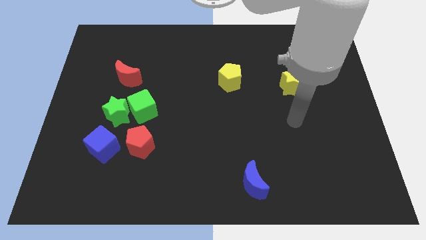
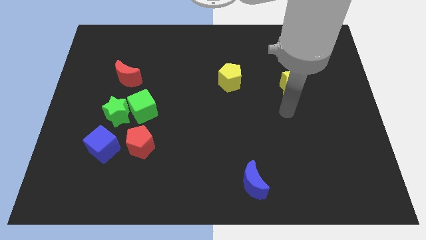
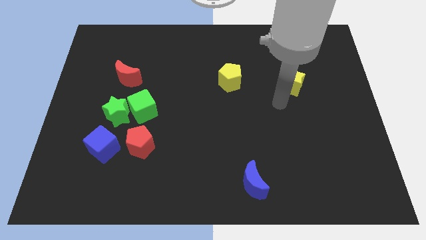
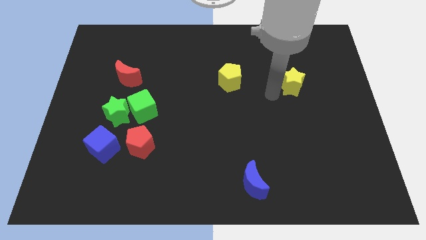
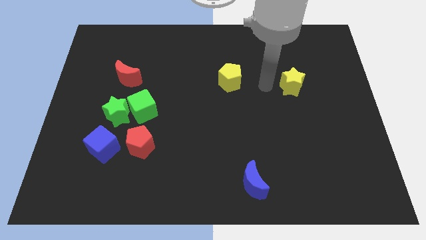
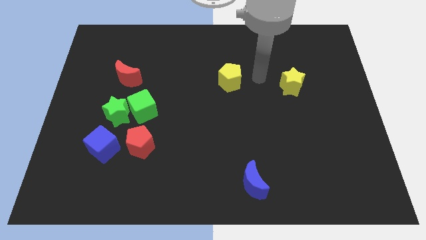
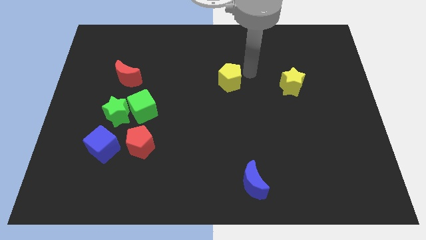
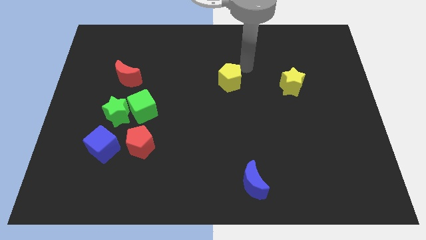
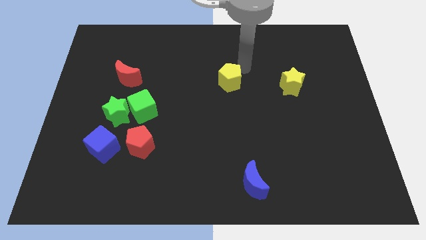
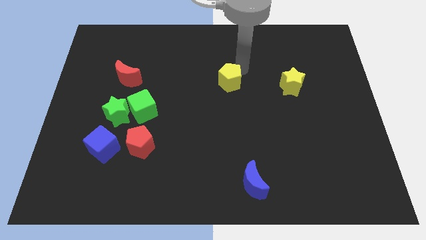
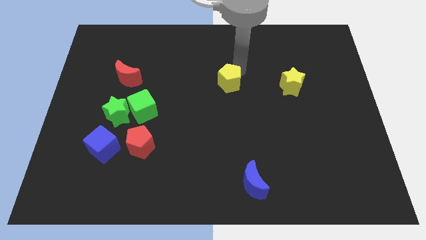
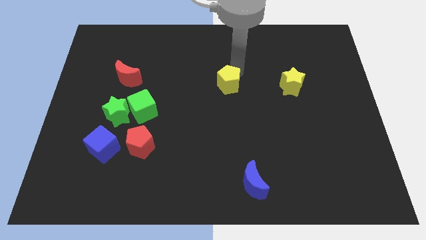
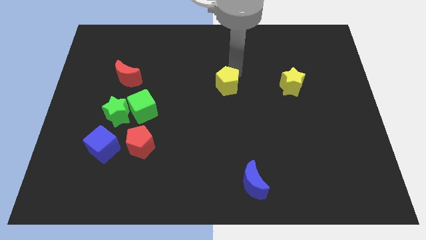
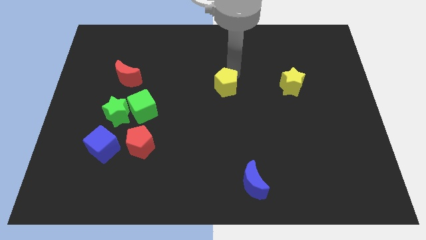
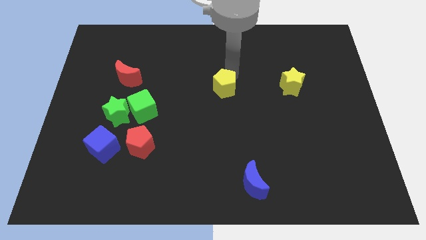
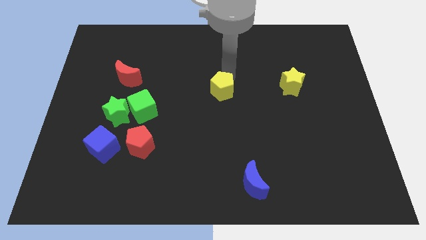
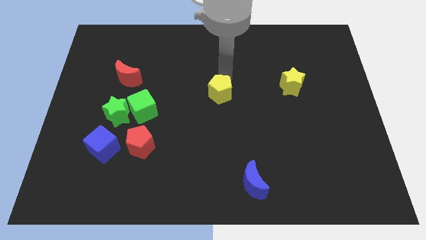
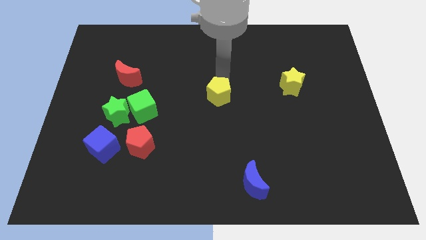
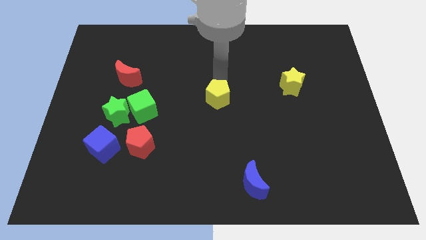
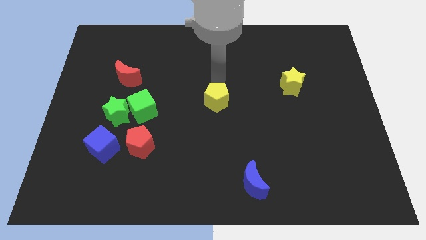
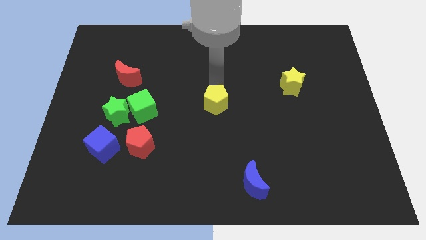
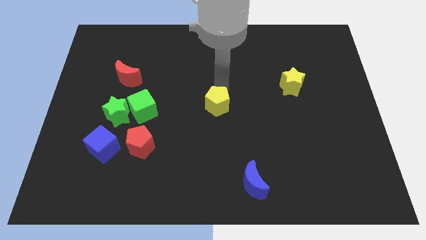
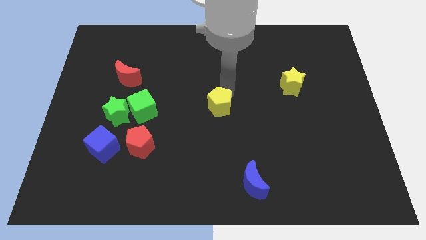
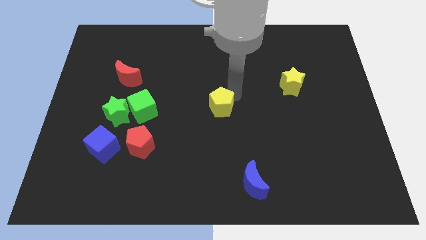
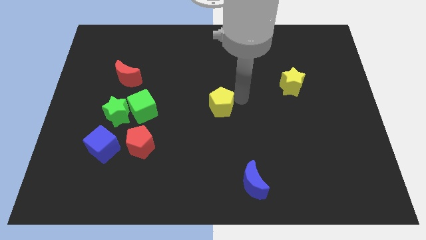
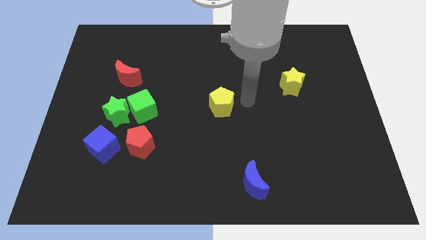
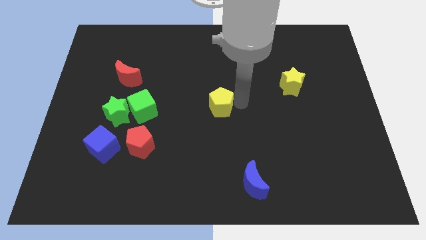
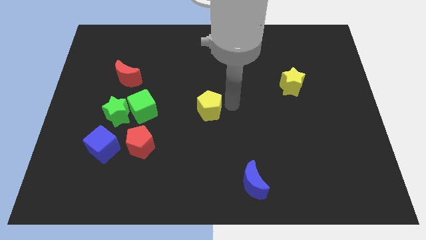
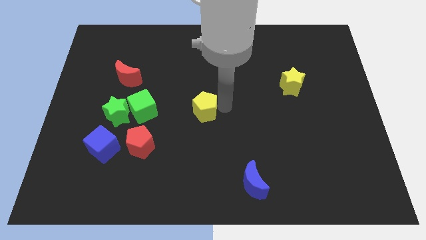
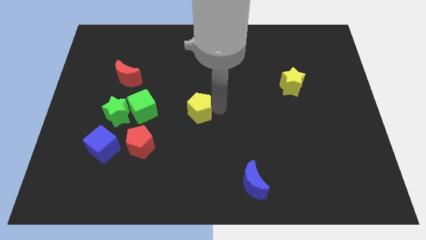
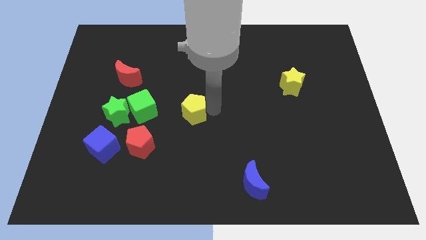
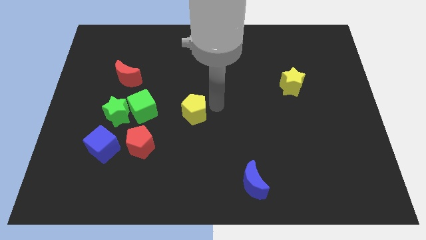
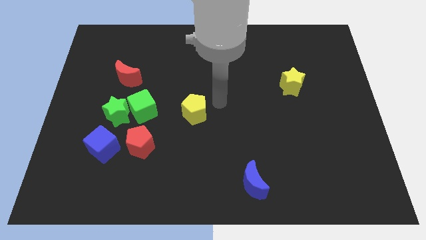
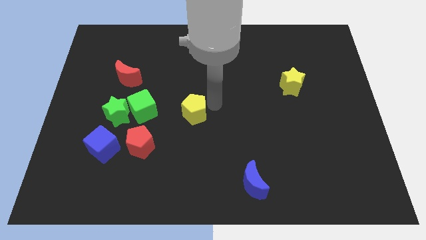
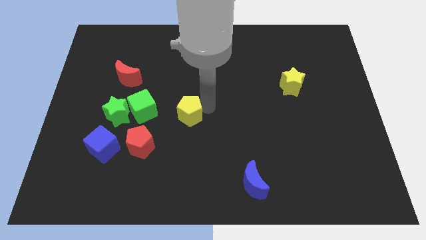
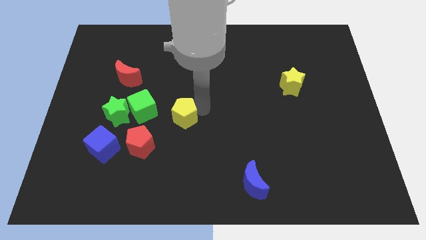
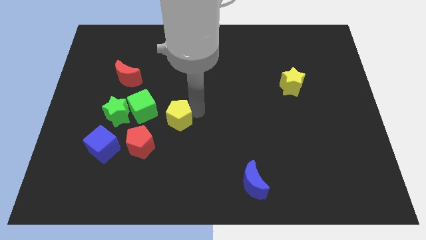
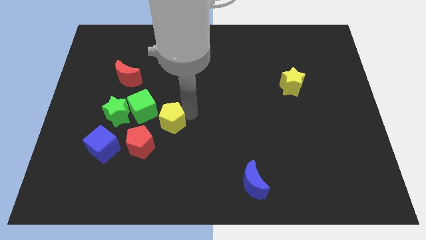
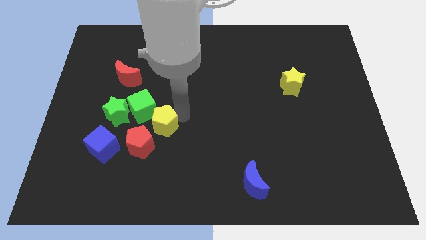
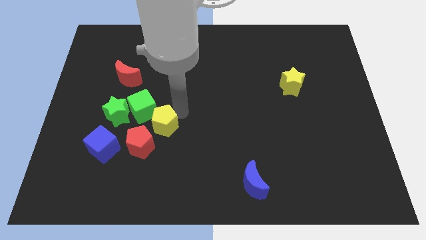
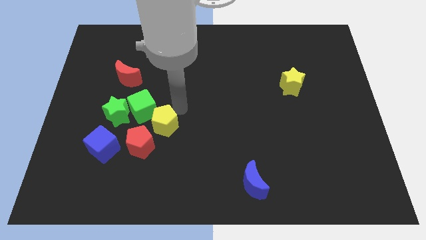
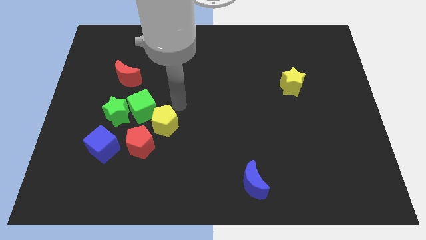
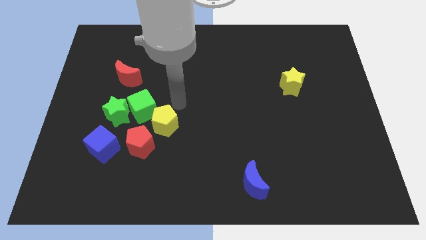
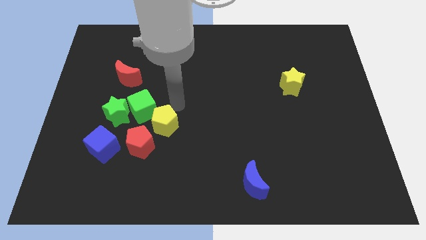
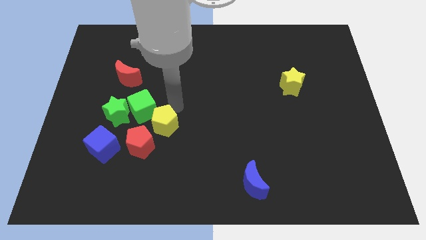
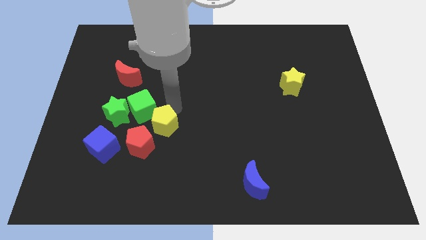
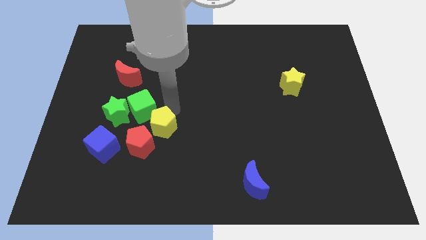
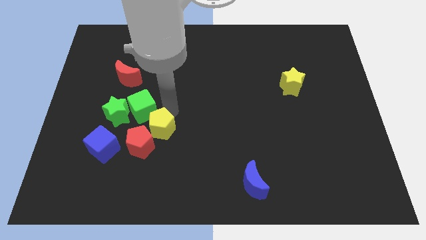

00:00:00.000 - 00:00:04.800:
put the yellow pentagon to the red pentagon

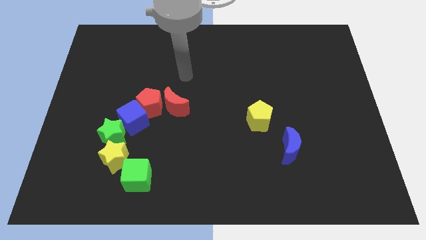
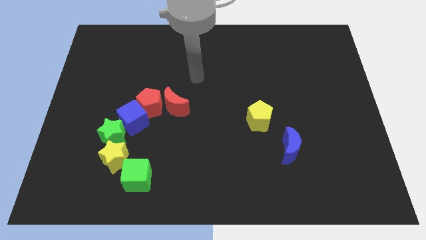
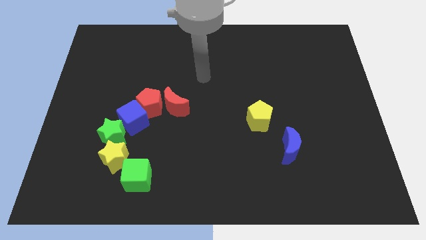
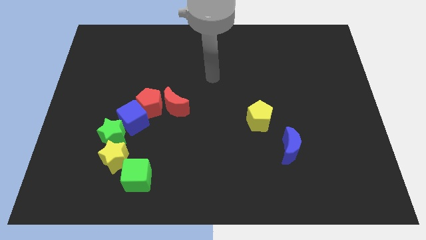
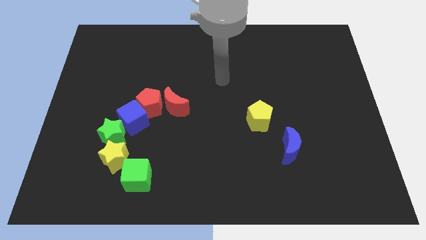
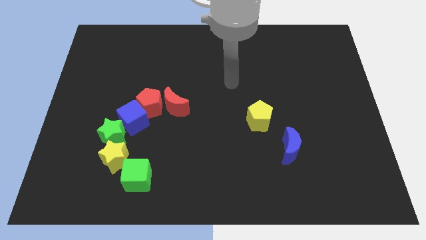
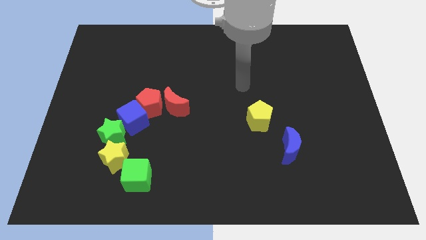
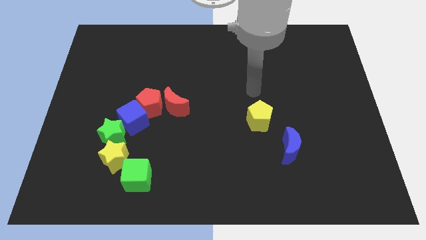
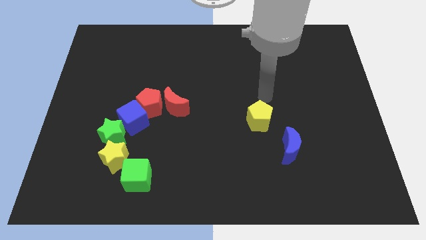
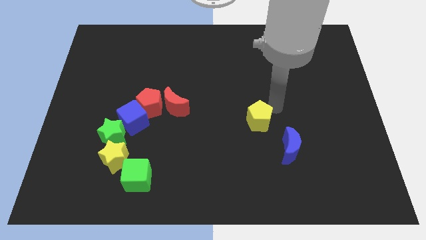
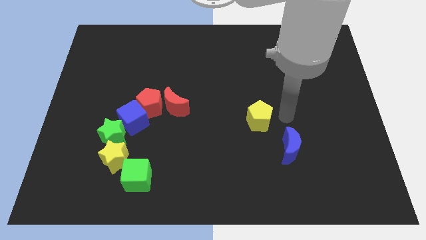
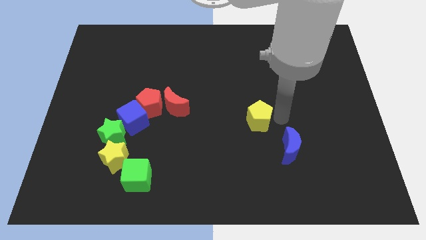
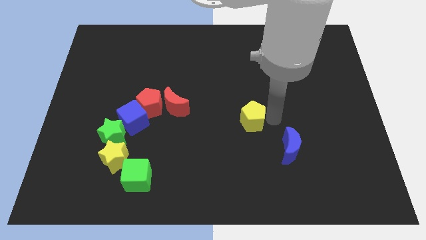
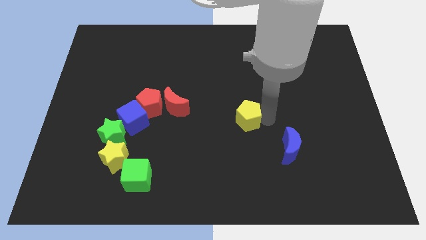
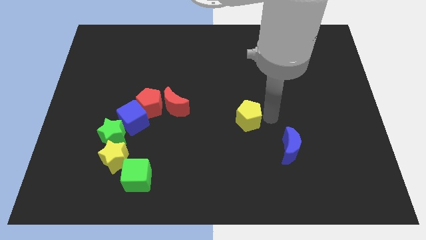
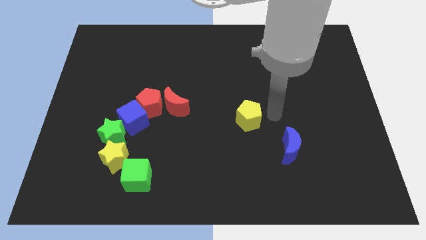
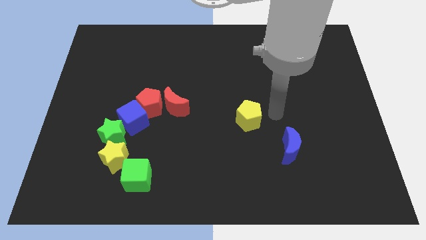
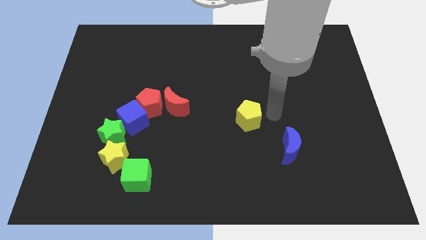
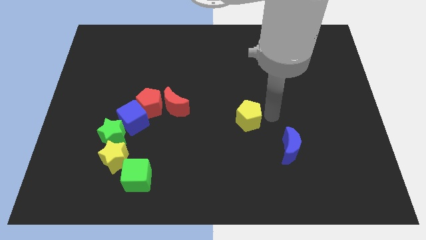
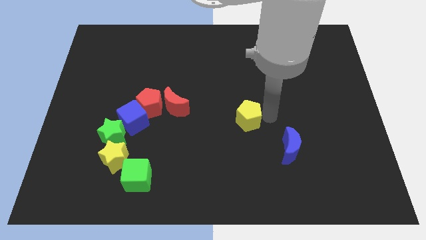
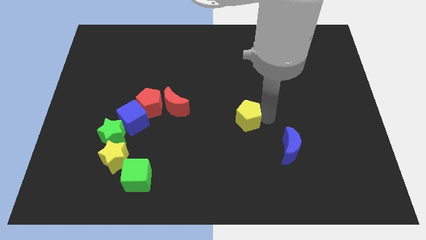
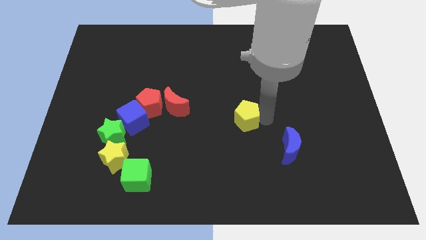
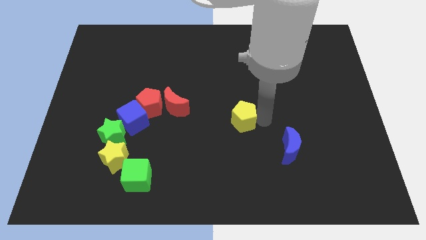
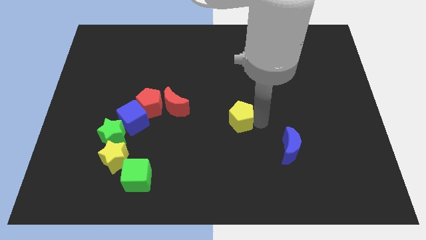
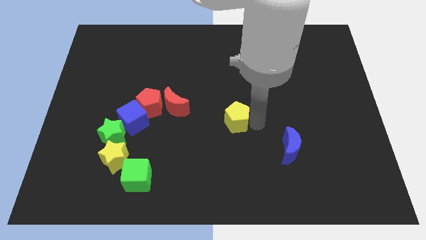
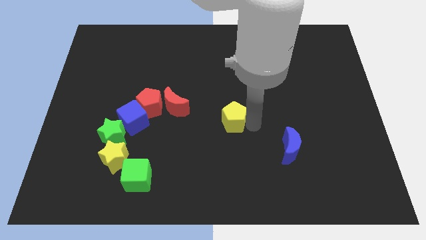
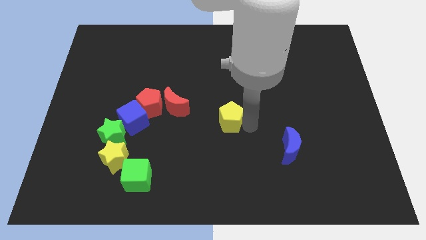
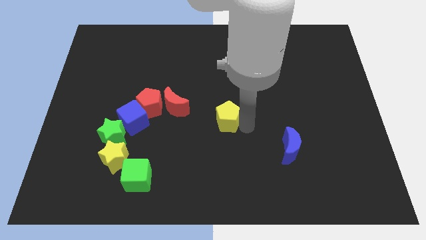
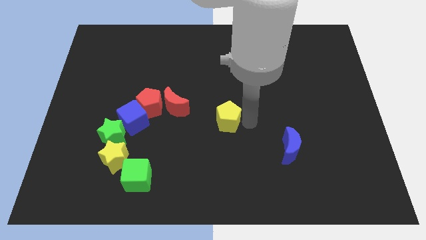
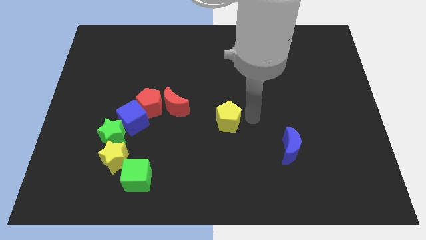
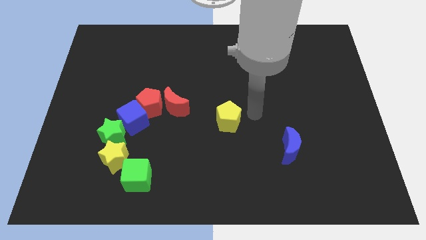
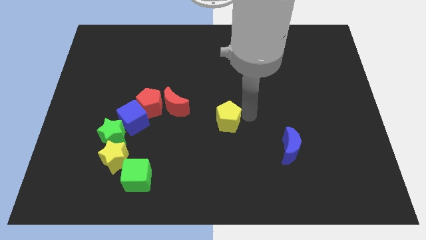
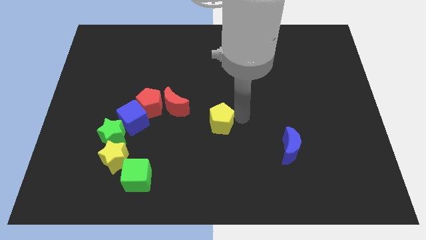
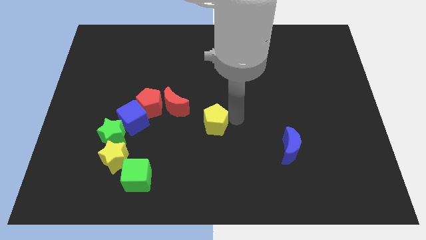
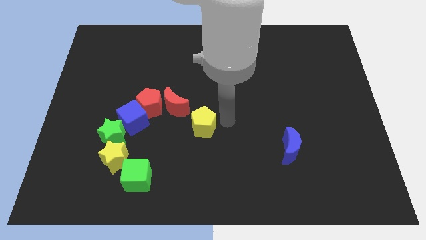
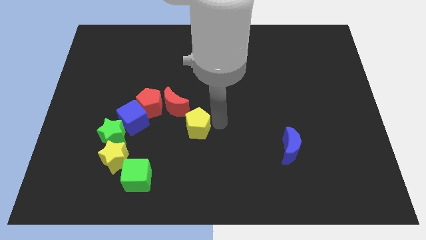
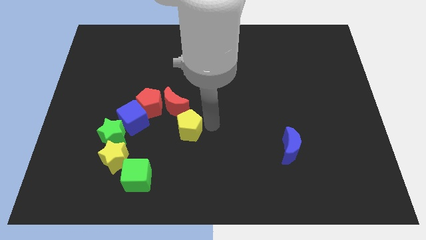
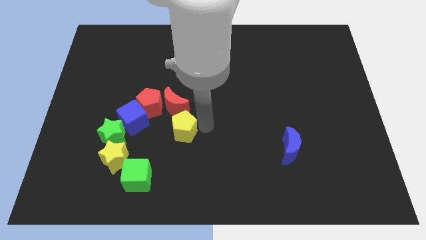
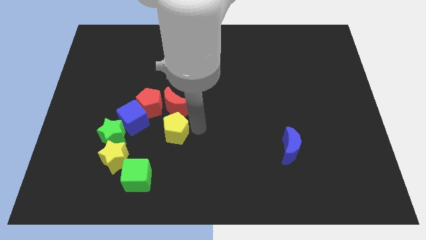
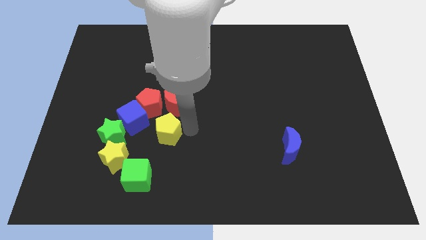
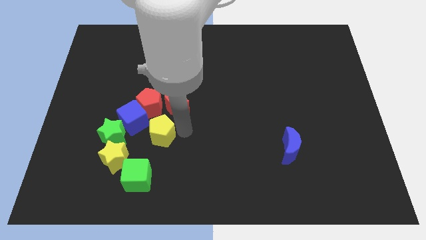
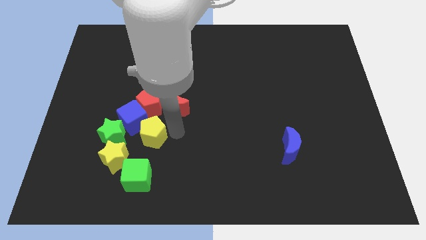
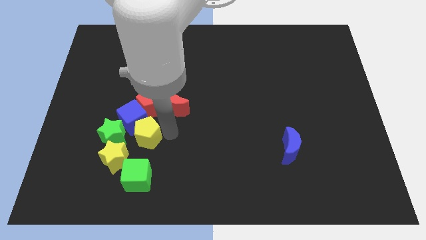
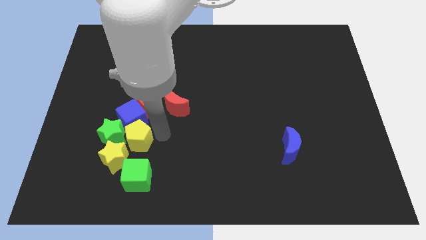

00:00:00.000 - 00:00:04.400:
move the yellow pentagon to the green star
